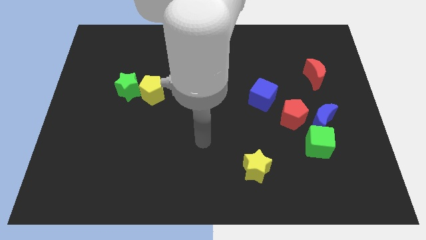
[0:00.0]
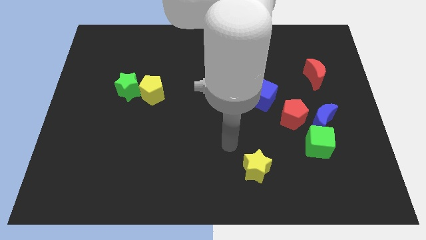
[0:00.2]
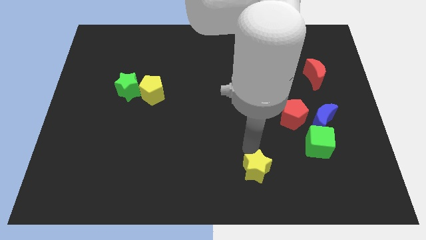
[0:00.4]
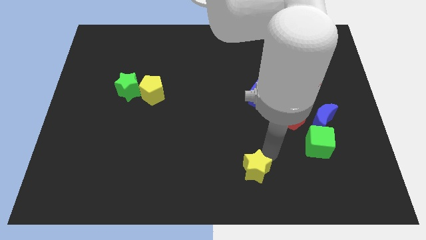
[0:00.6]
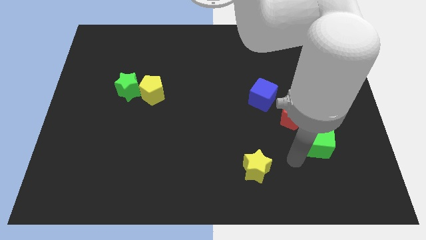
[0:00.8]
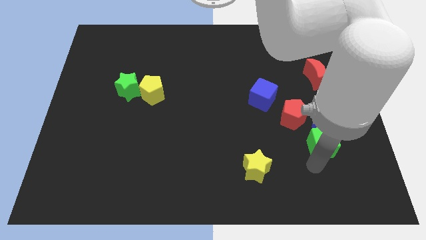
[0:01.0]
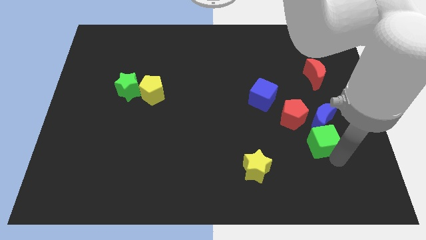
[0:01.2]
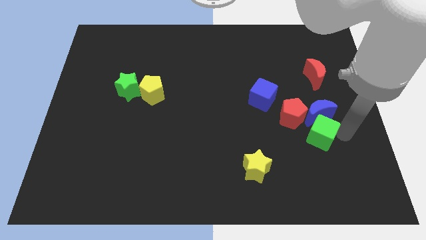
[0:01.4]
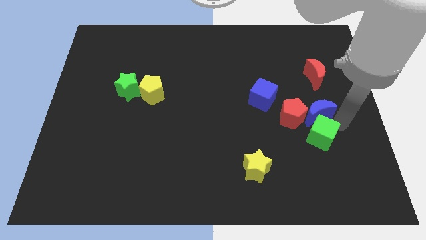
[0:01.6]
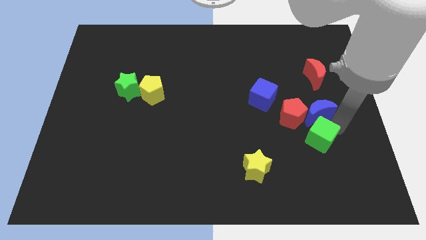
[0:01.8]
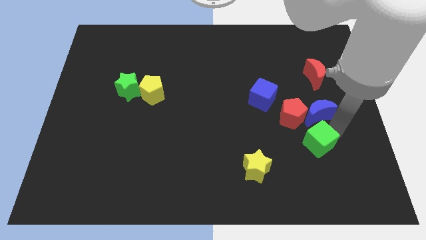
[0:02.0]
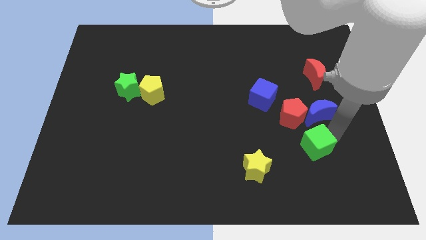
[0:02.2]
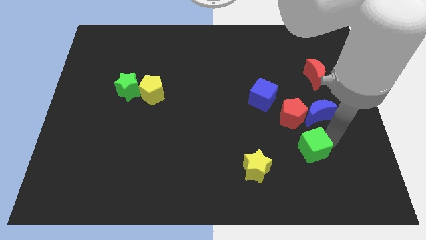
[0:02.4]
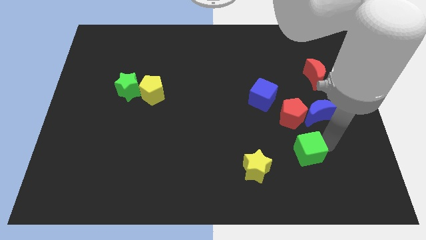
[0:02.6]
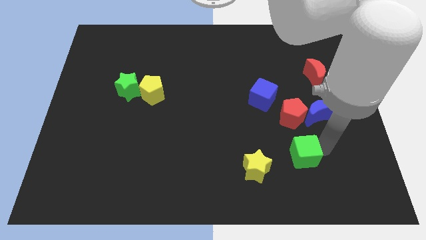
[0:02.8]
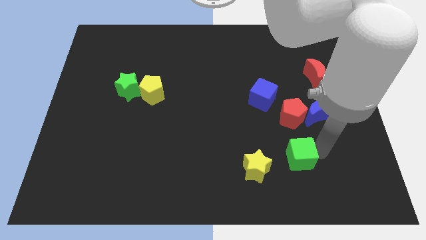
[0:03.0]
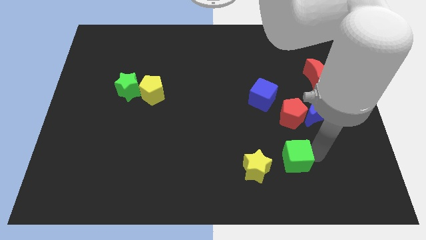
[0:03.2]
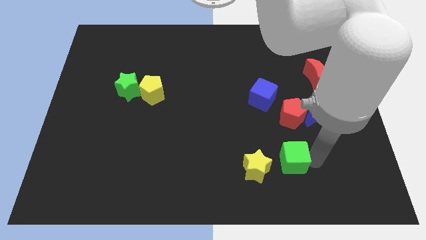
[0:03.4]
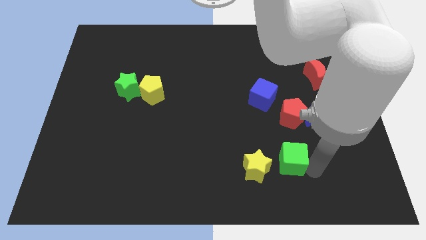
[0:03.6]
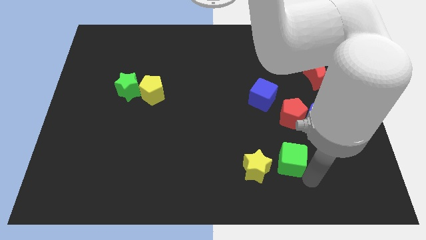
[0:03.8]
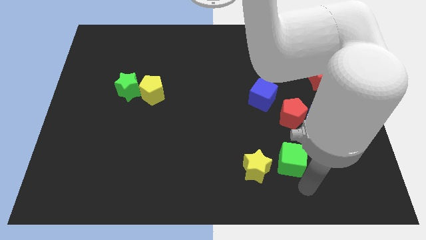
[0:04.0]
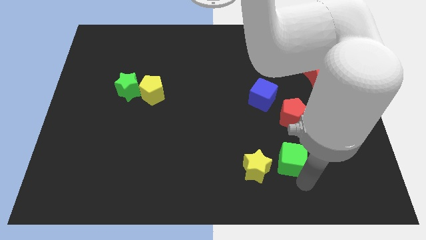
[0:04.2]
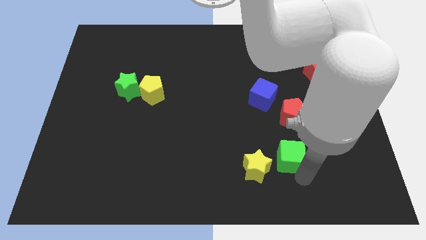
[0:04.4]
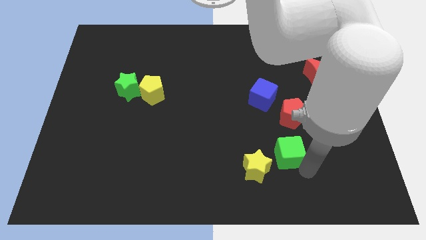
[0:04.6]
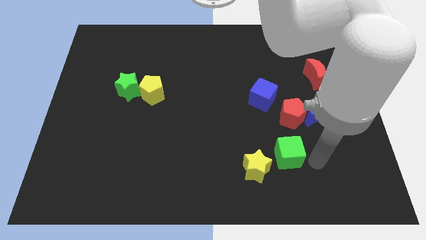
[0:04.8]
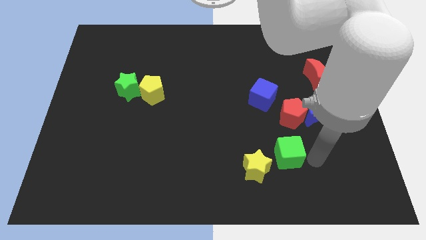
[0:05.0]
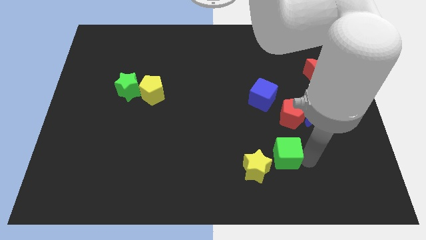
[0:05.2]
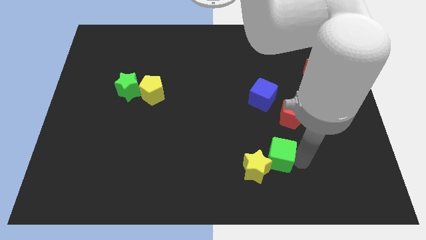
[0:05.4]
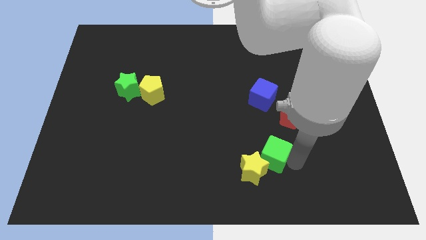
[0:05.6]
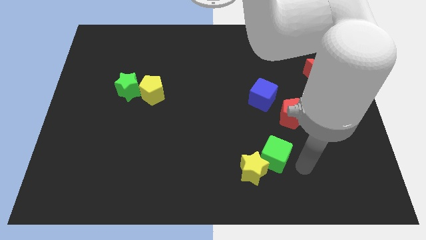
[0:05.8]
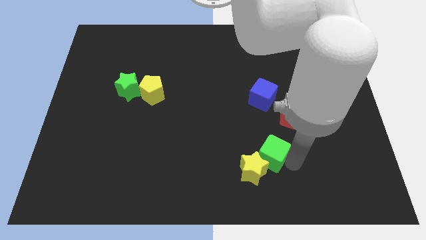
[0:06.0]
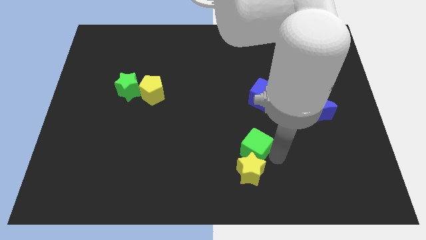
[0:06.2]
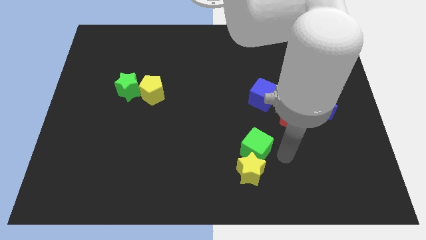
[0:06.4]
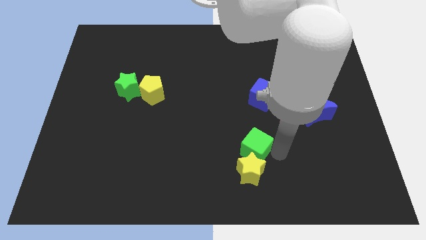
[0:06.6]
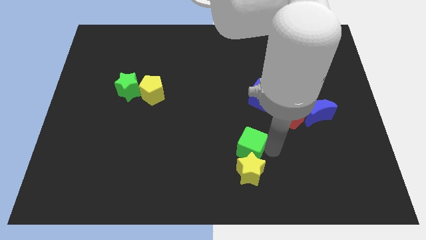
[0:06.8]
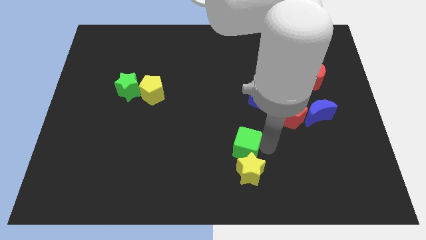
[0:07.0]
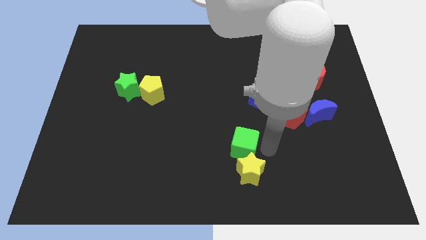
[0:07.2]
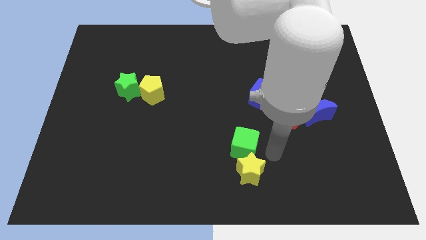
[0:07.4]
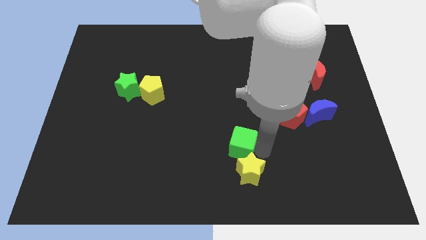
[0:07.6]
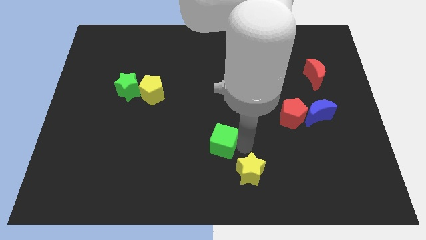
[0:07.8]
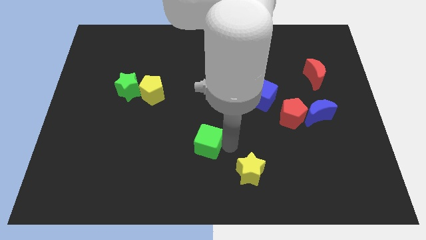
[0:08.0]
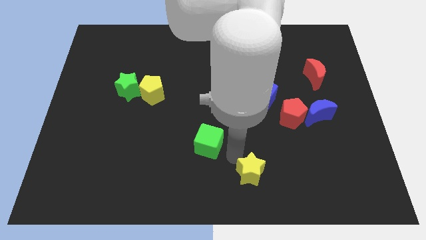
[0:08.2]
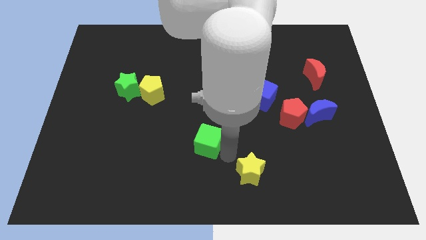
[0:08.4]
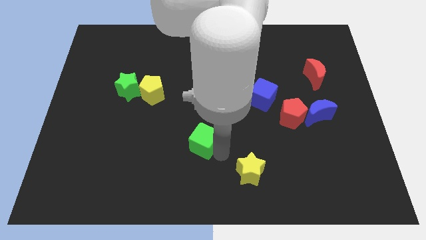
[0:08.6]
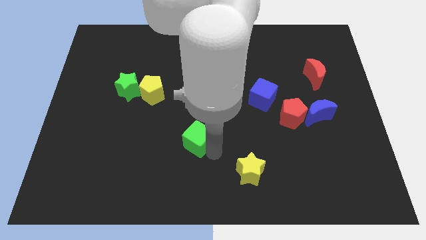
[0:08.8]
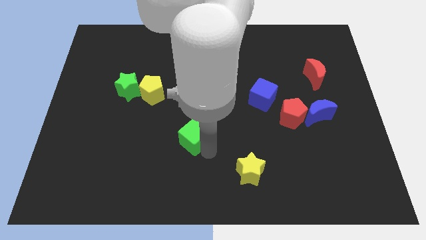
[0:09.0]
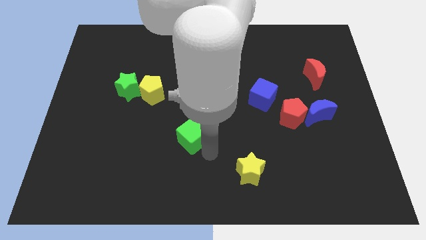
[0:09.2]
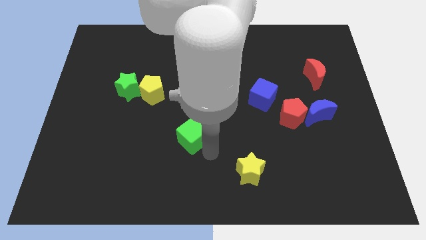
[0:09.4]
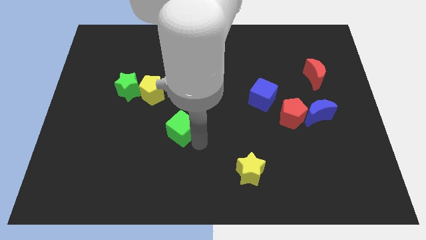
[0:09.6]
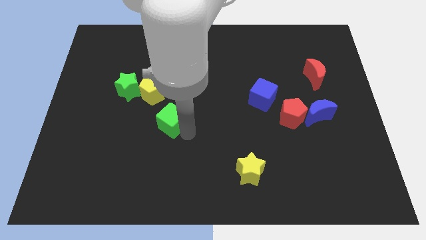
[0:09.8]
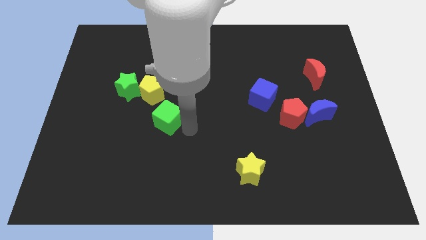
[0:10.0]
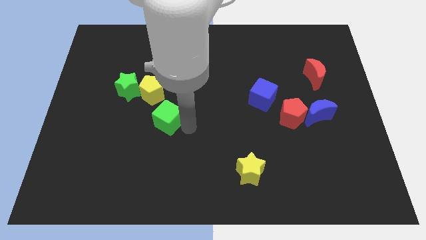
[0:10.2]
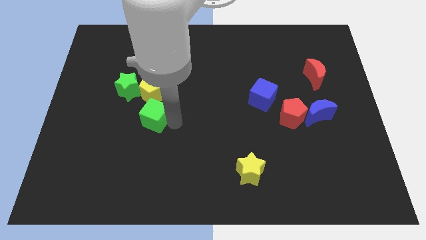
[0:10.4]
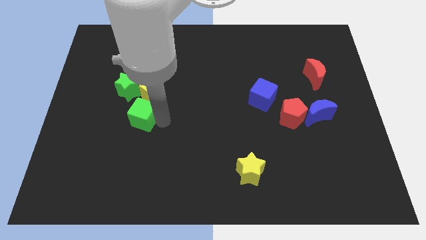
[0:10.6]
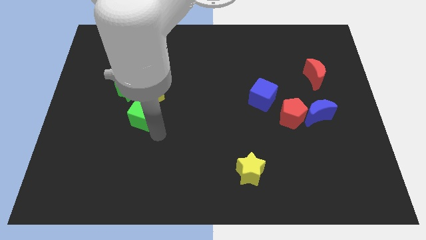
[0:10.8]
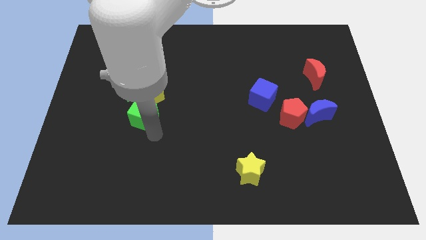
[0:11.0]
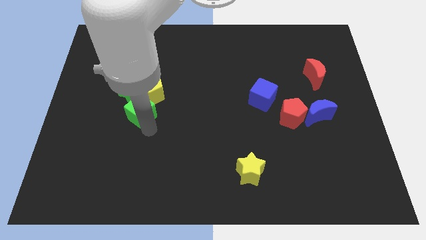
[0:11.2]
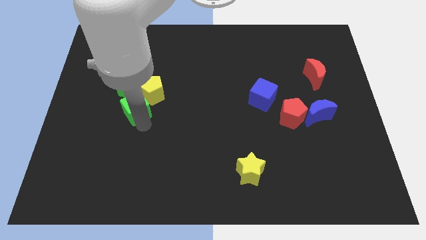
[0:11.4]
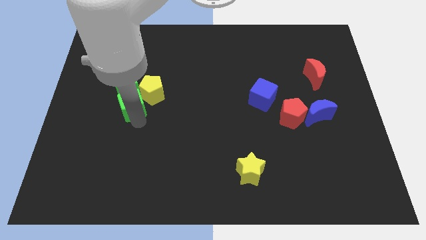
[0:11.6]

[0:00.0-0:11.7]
move the green cube to the green star

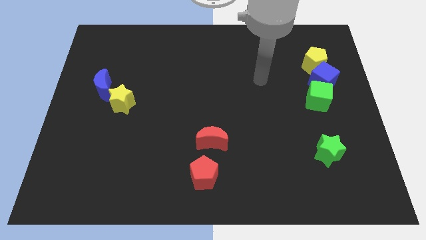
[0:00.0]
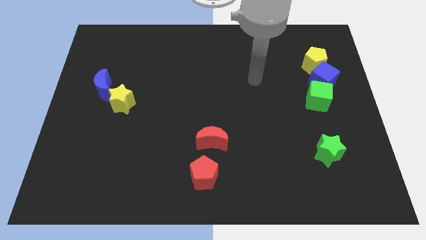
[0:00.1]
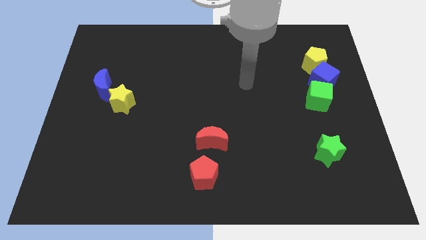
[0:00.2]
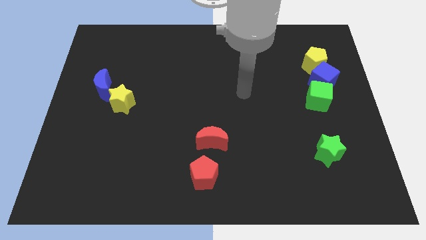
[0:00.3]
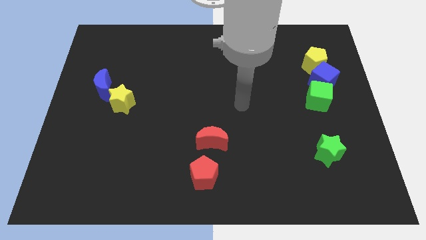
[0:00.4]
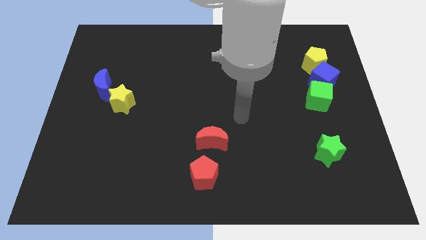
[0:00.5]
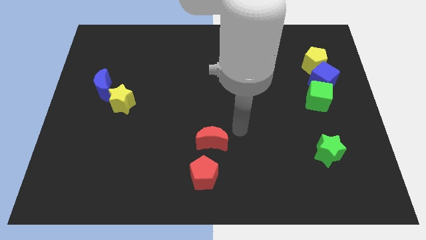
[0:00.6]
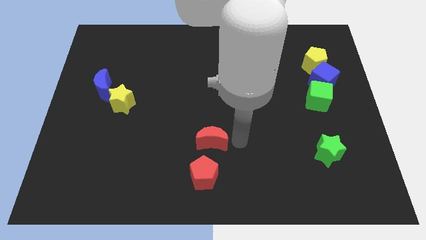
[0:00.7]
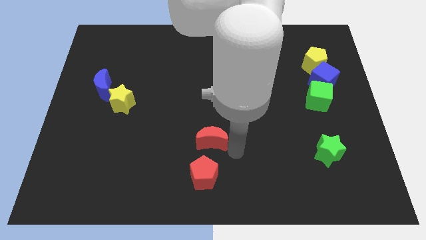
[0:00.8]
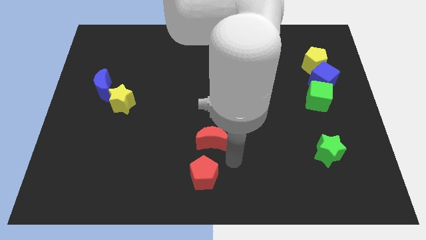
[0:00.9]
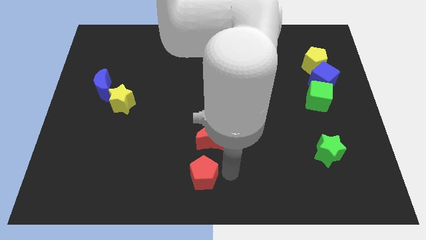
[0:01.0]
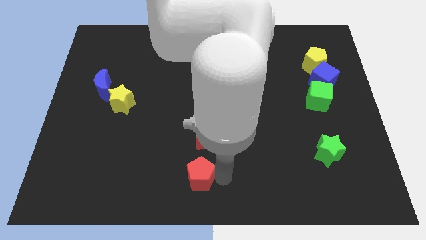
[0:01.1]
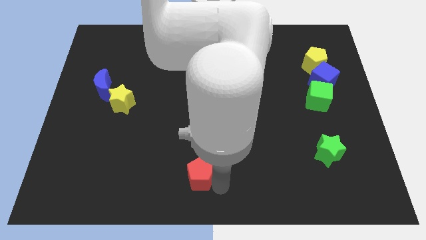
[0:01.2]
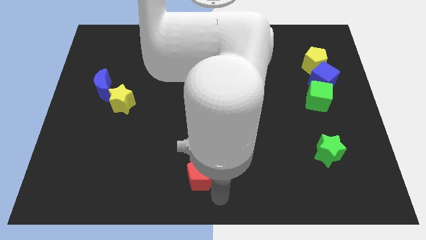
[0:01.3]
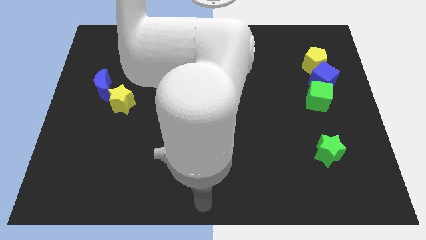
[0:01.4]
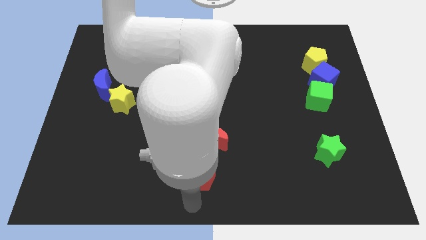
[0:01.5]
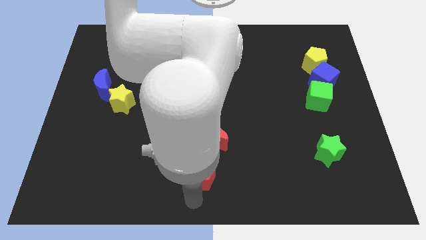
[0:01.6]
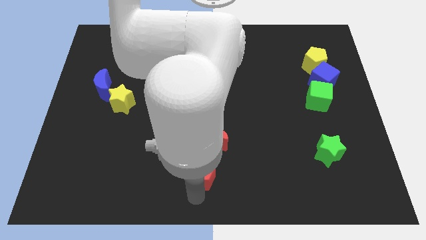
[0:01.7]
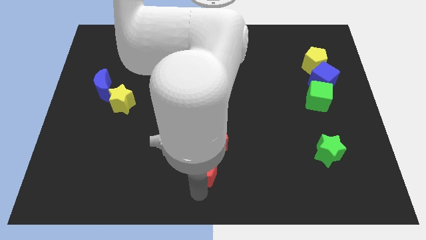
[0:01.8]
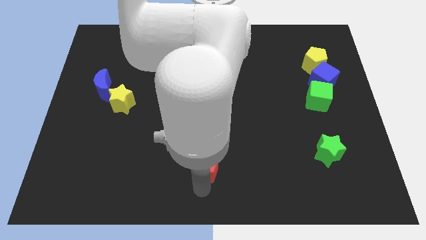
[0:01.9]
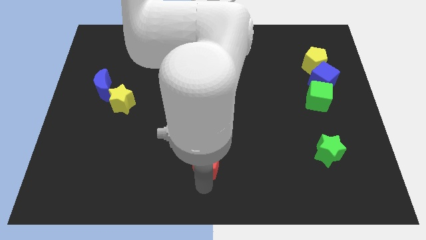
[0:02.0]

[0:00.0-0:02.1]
push the red pentagon close to the red moon

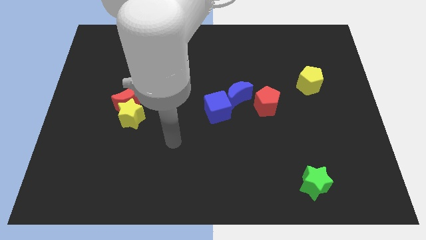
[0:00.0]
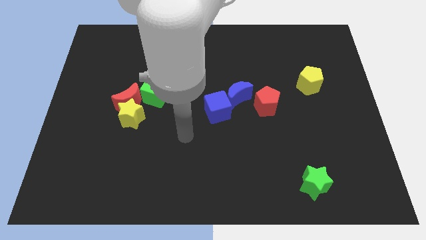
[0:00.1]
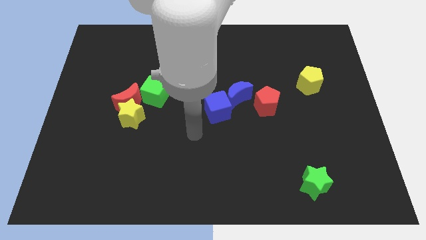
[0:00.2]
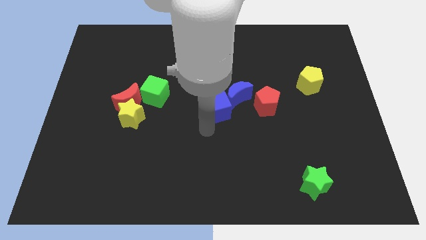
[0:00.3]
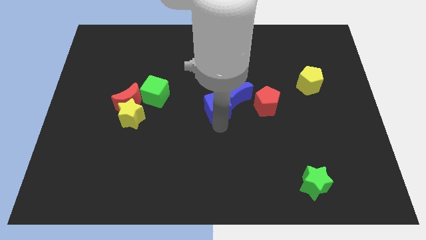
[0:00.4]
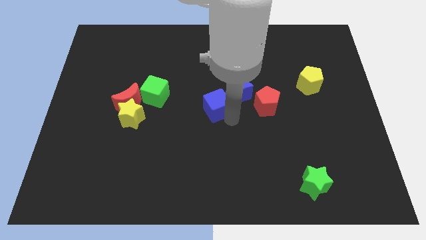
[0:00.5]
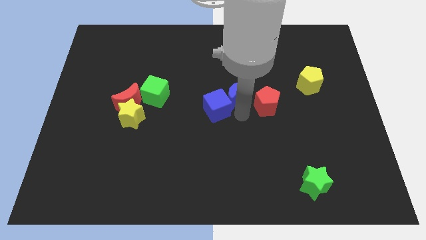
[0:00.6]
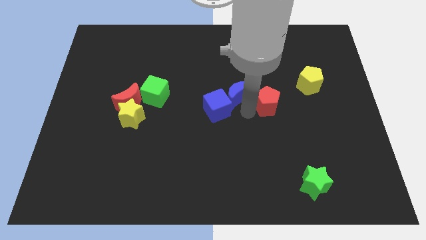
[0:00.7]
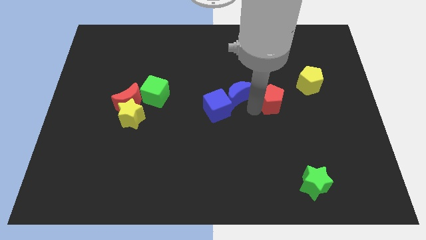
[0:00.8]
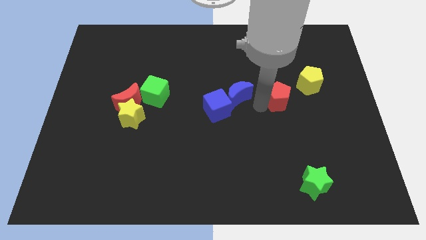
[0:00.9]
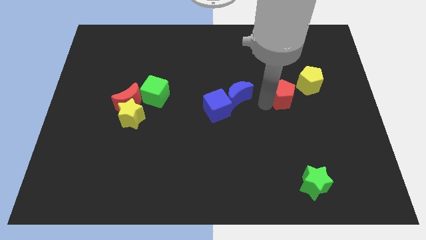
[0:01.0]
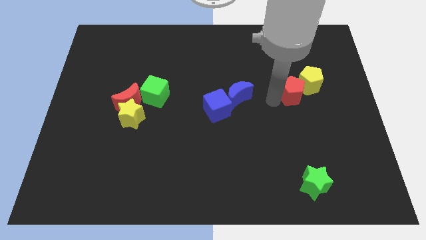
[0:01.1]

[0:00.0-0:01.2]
put the red pentagon towards the yellow pentagon
